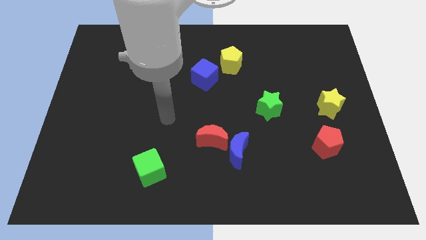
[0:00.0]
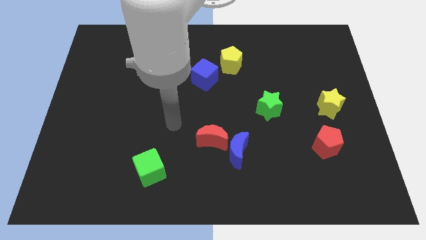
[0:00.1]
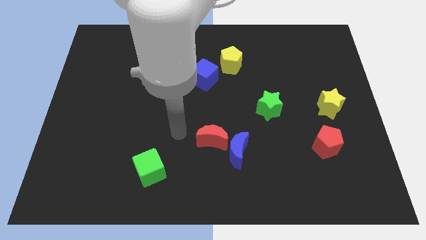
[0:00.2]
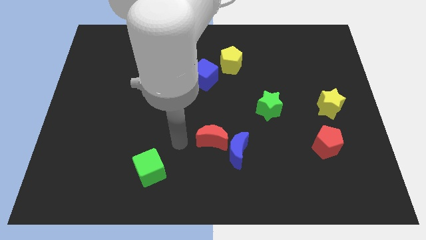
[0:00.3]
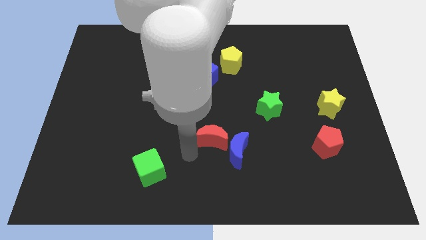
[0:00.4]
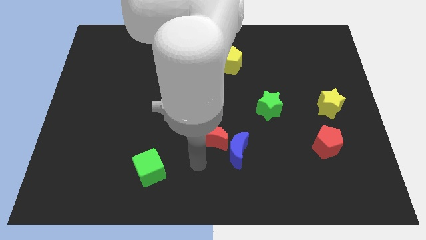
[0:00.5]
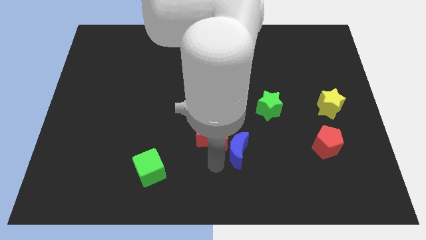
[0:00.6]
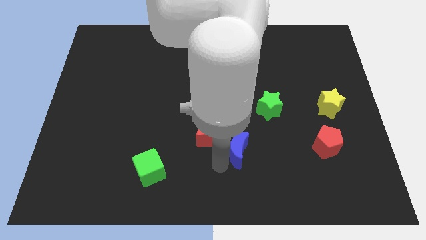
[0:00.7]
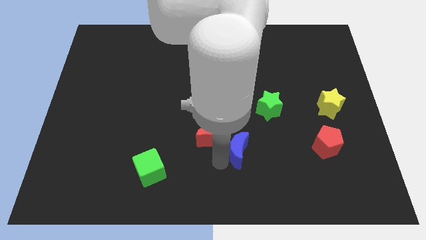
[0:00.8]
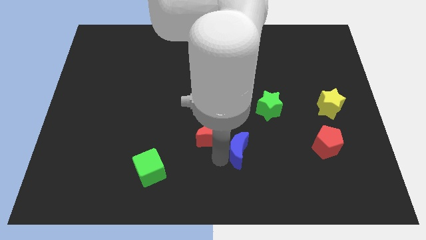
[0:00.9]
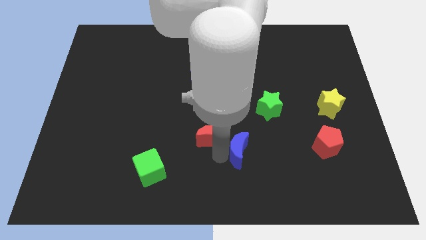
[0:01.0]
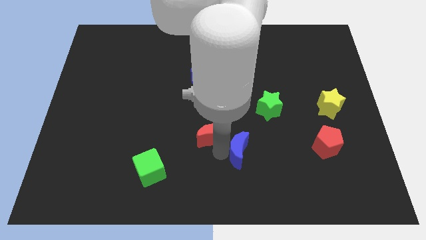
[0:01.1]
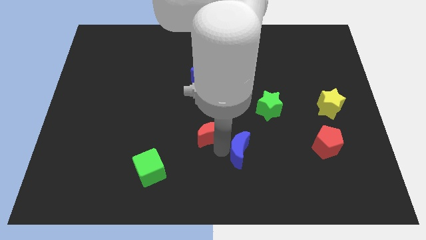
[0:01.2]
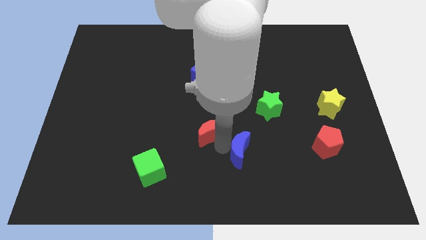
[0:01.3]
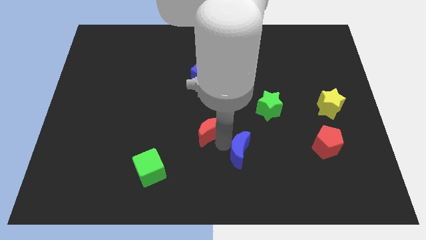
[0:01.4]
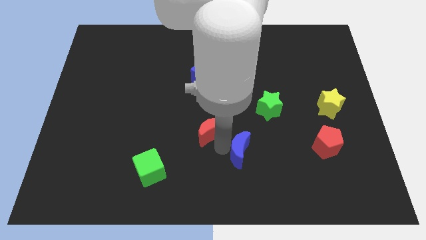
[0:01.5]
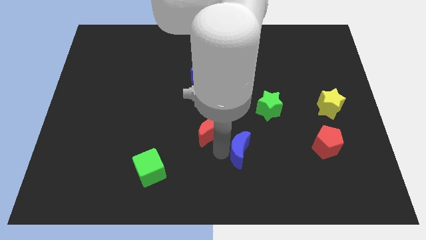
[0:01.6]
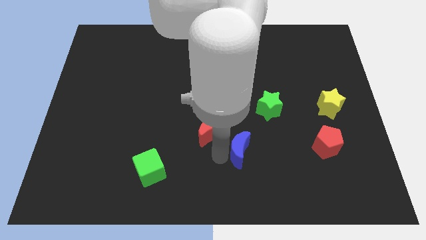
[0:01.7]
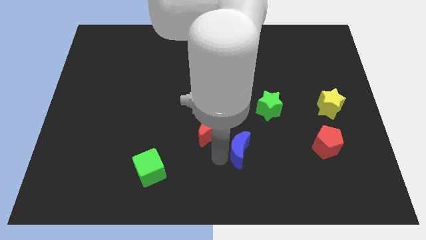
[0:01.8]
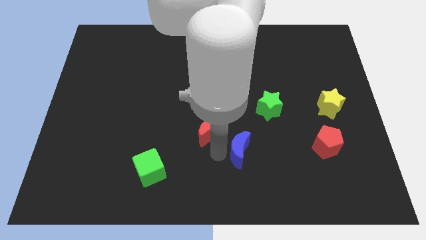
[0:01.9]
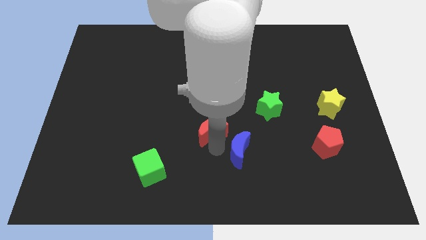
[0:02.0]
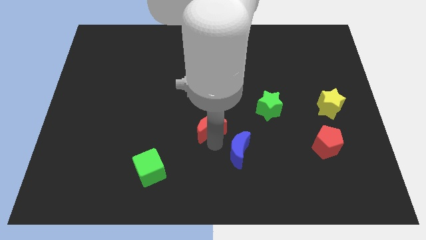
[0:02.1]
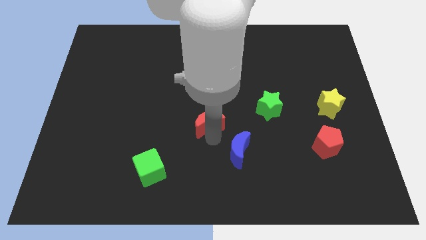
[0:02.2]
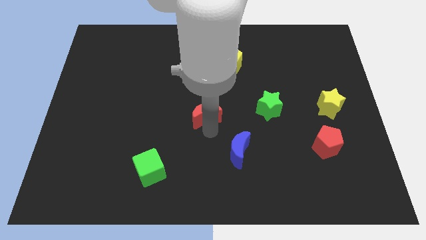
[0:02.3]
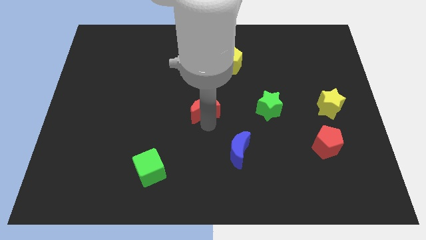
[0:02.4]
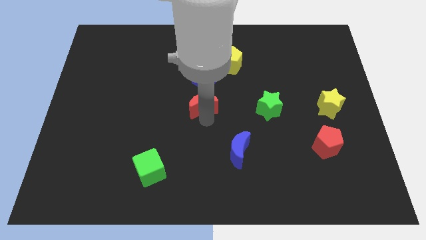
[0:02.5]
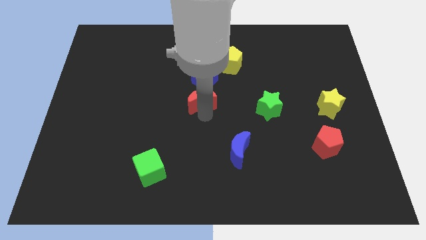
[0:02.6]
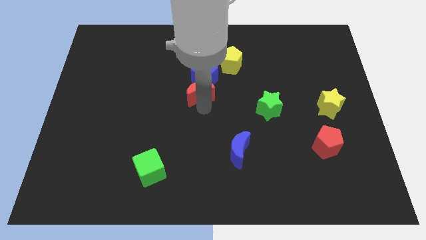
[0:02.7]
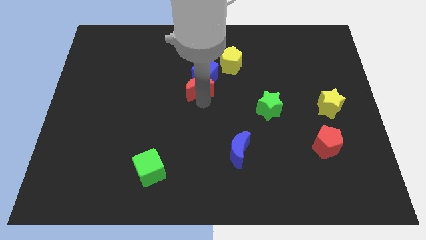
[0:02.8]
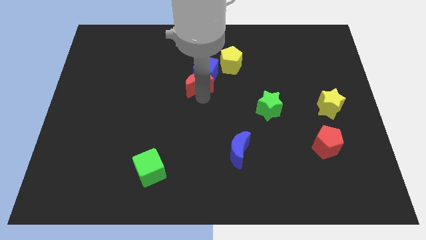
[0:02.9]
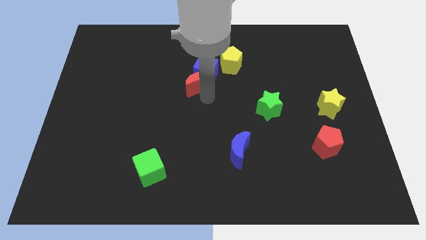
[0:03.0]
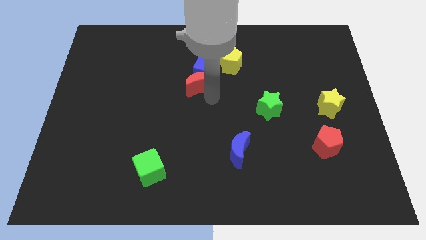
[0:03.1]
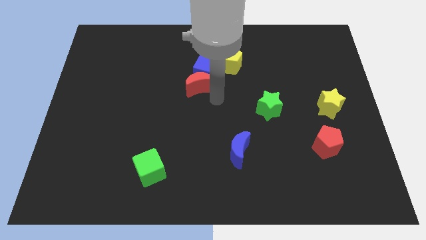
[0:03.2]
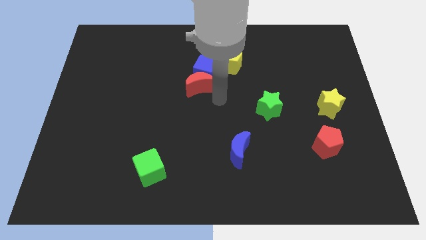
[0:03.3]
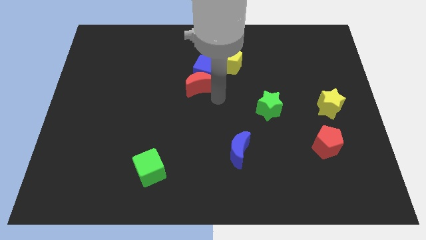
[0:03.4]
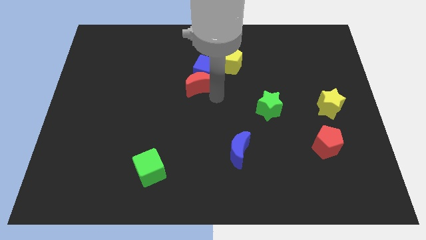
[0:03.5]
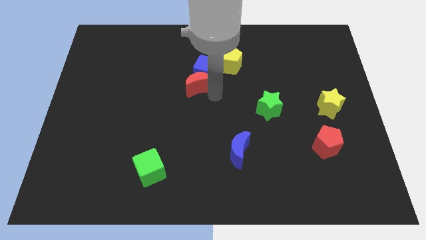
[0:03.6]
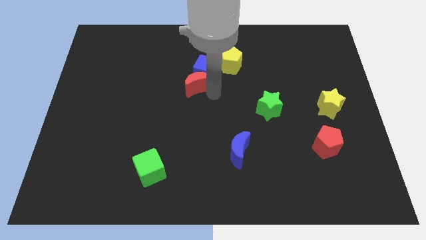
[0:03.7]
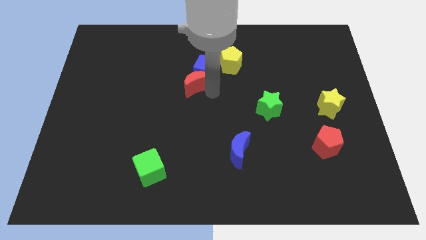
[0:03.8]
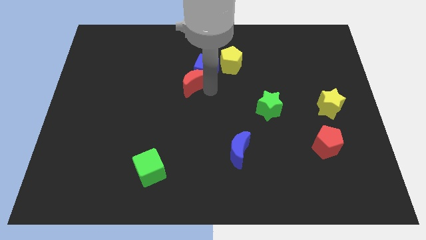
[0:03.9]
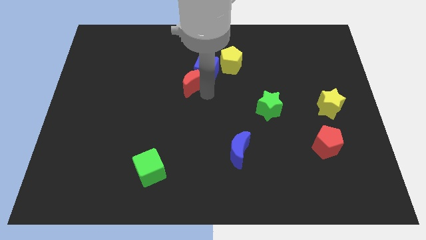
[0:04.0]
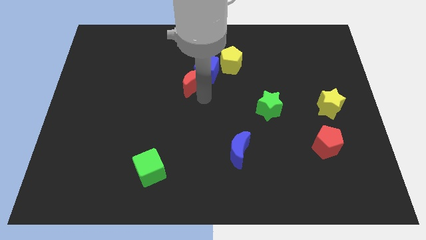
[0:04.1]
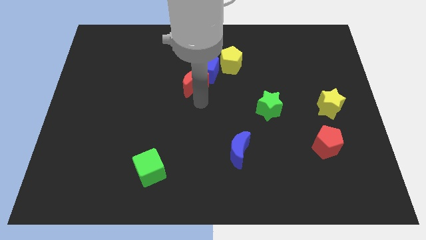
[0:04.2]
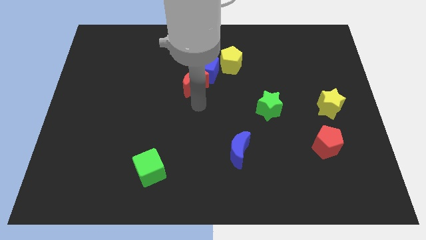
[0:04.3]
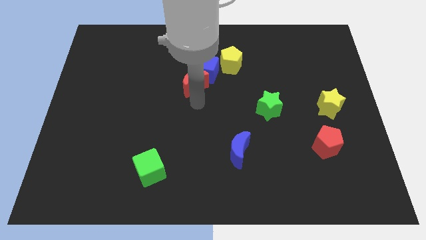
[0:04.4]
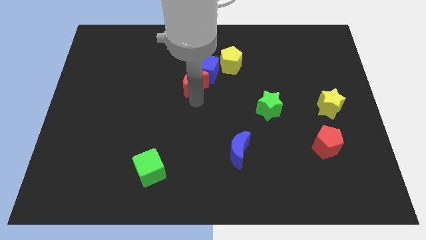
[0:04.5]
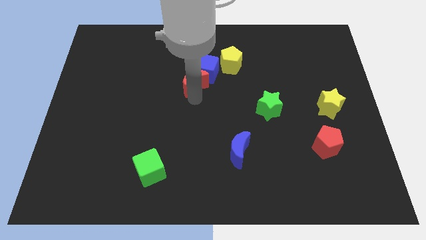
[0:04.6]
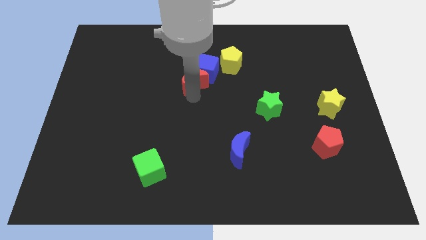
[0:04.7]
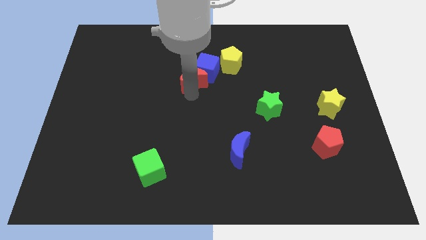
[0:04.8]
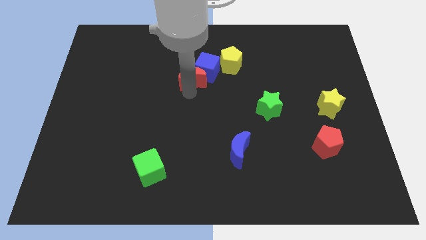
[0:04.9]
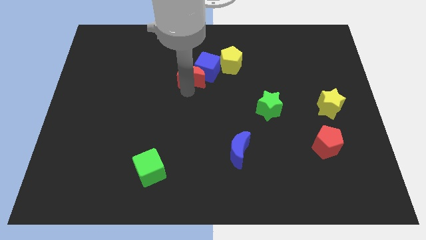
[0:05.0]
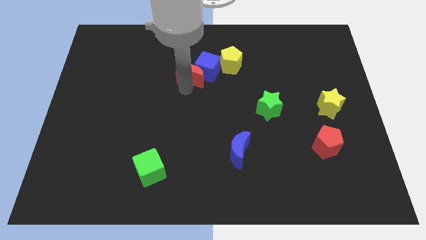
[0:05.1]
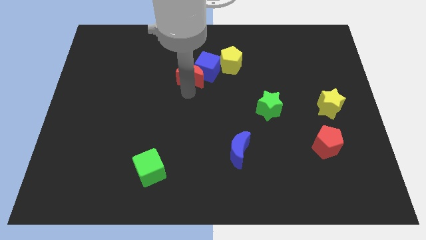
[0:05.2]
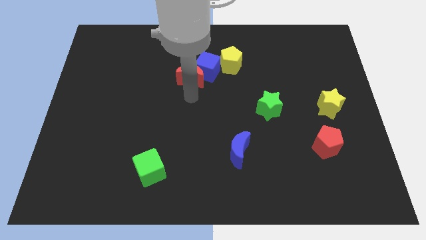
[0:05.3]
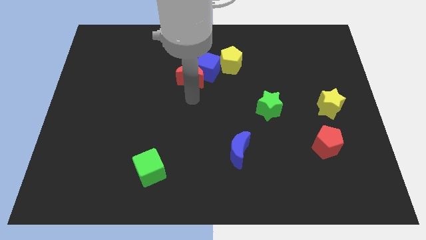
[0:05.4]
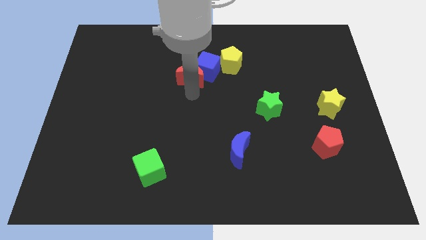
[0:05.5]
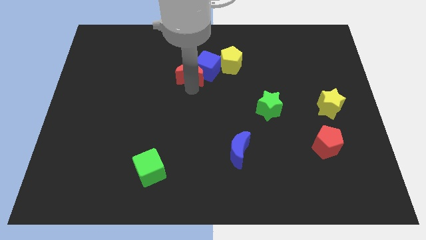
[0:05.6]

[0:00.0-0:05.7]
move the red moon to the left of the yellow pentagon

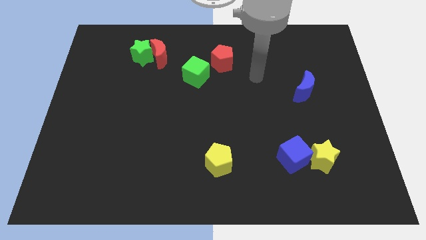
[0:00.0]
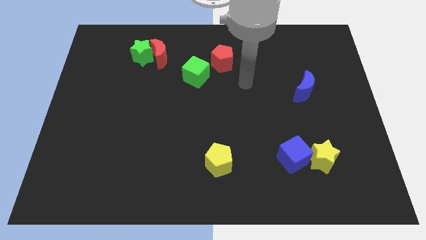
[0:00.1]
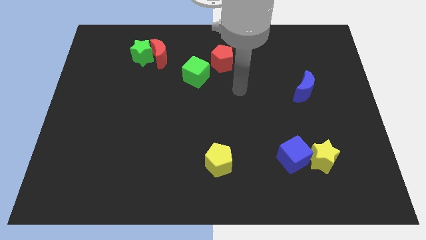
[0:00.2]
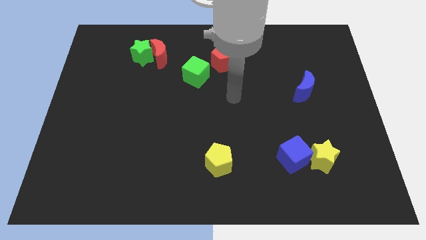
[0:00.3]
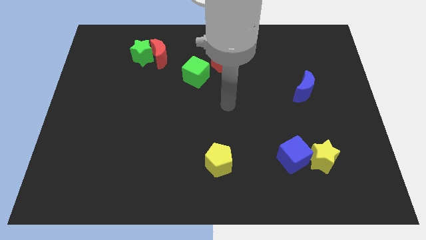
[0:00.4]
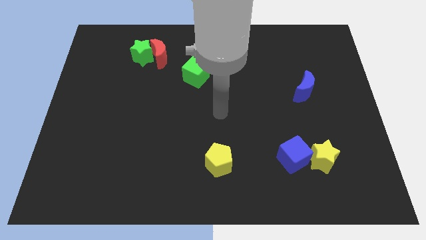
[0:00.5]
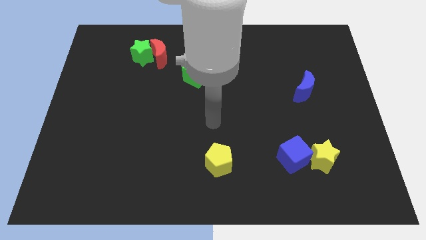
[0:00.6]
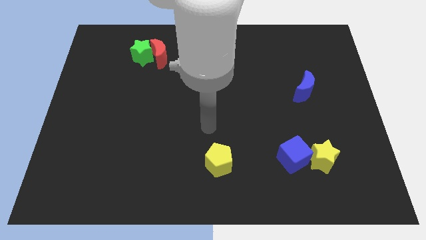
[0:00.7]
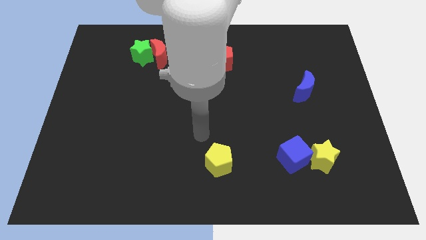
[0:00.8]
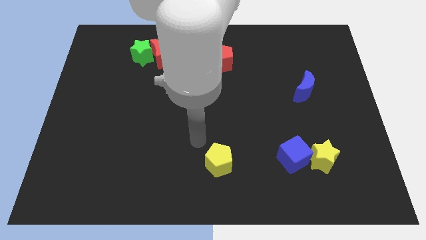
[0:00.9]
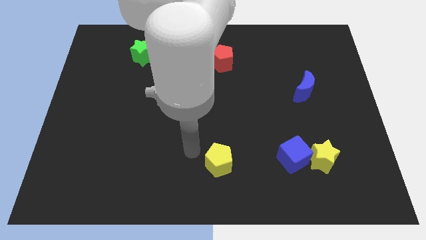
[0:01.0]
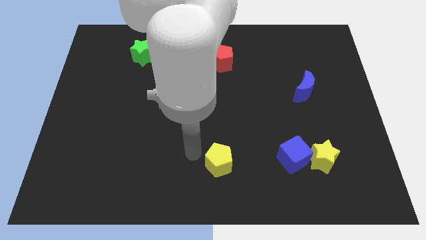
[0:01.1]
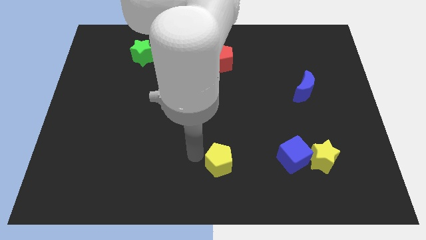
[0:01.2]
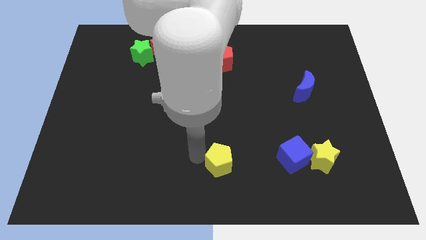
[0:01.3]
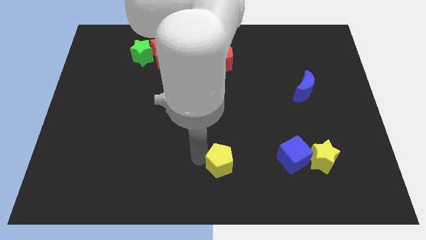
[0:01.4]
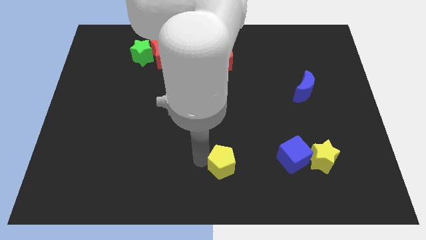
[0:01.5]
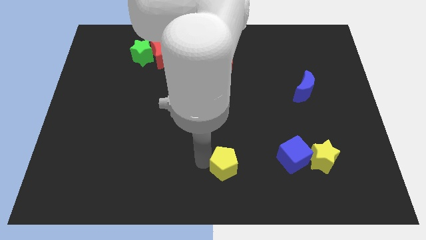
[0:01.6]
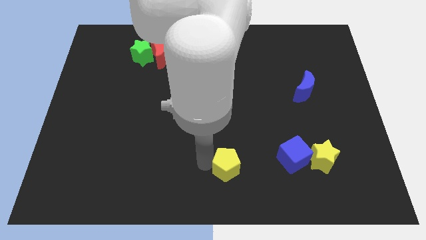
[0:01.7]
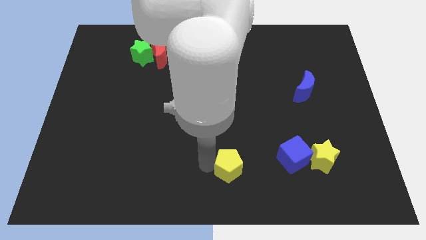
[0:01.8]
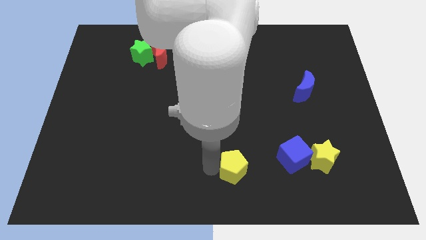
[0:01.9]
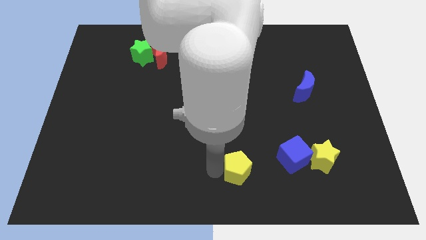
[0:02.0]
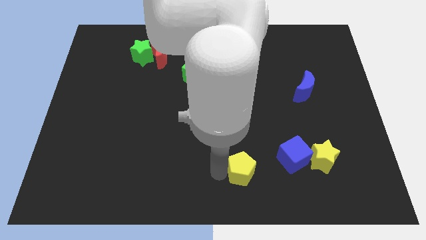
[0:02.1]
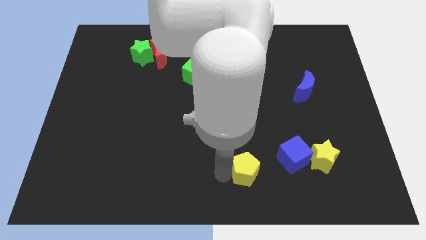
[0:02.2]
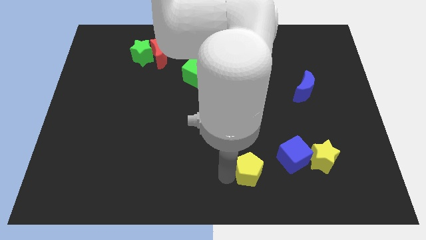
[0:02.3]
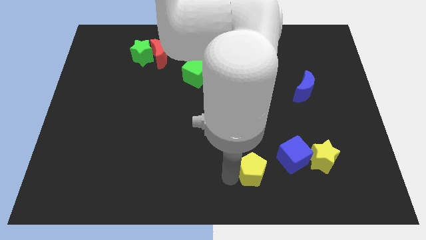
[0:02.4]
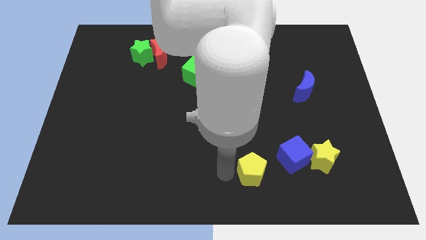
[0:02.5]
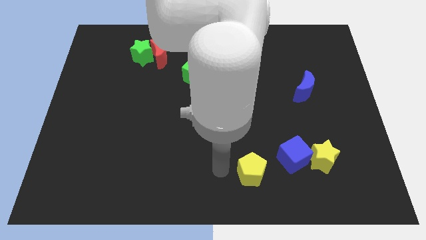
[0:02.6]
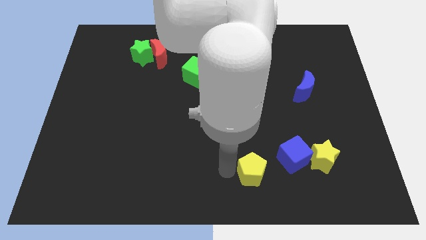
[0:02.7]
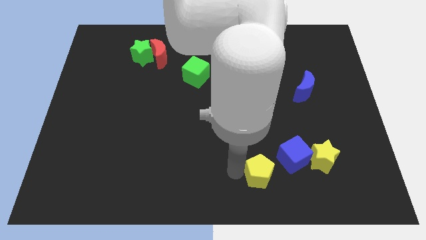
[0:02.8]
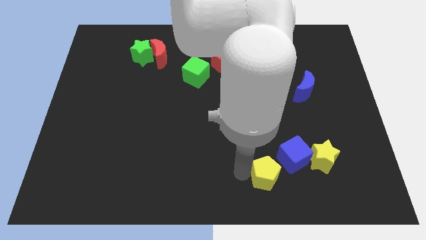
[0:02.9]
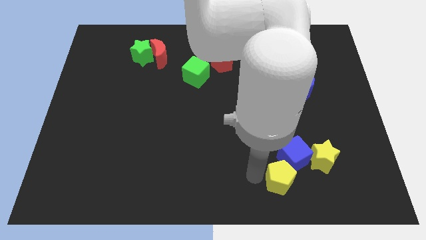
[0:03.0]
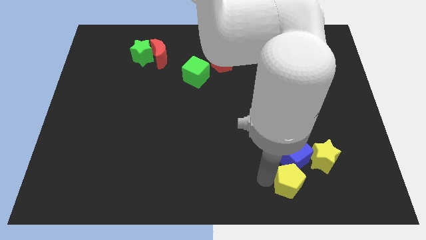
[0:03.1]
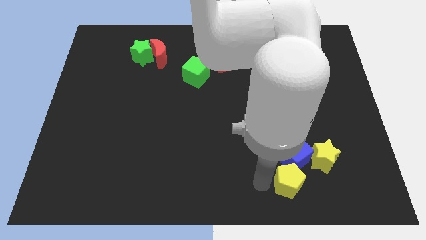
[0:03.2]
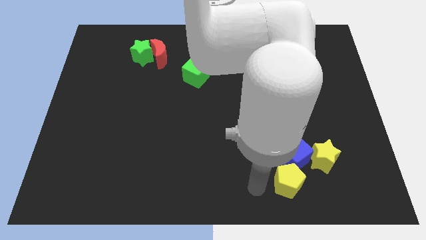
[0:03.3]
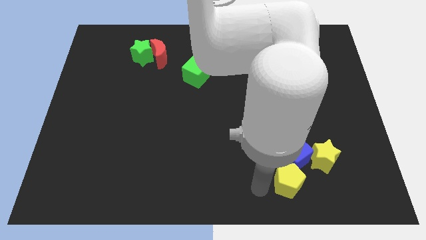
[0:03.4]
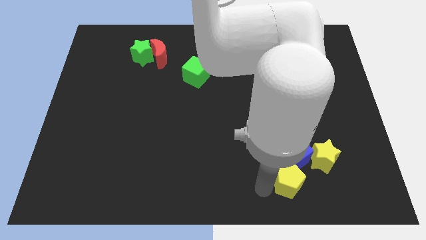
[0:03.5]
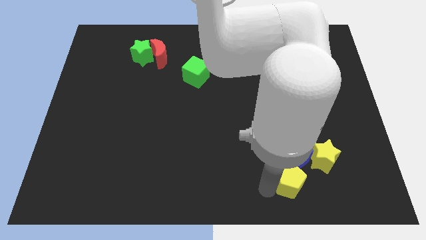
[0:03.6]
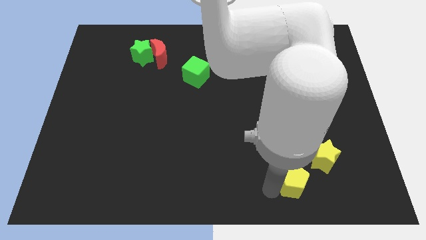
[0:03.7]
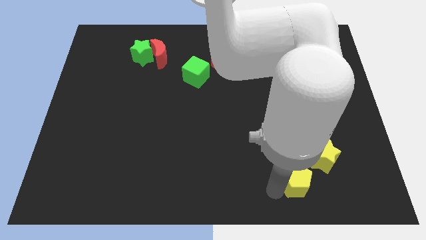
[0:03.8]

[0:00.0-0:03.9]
push the yellow pentagon to the bottom right of the blue cube
